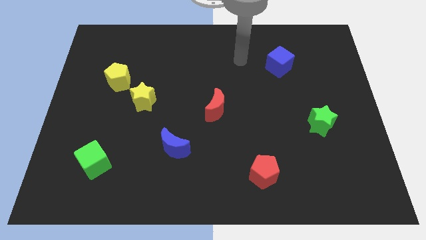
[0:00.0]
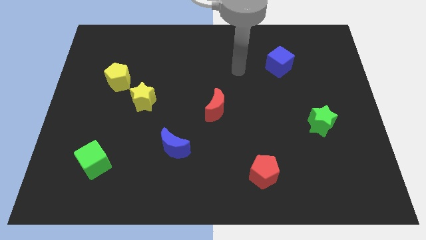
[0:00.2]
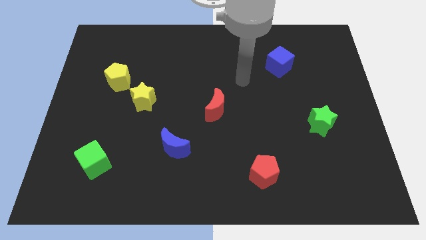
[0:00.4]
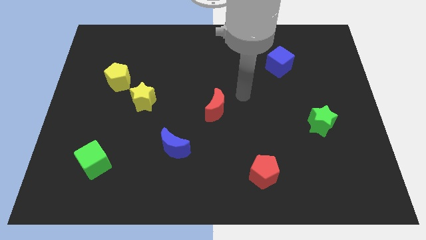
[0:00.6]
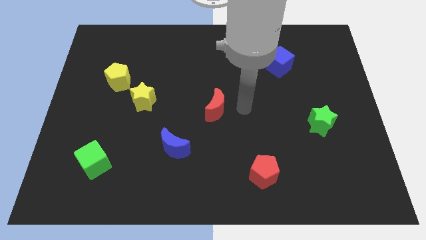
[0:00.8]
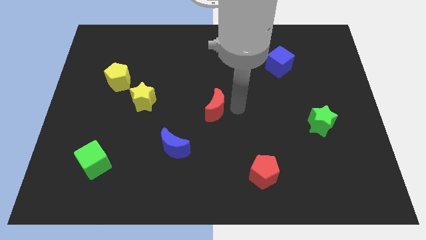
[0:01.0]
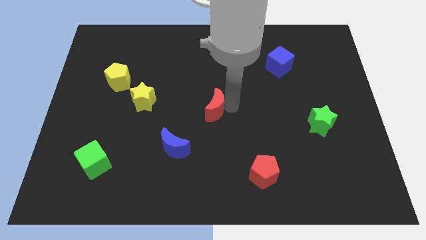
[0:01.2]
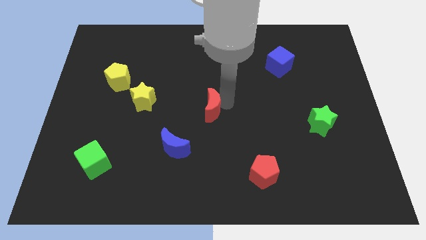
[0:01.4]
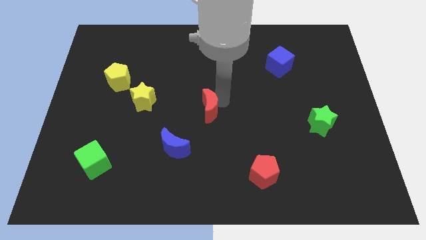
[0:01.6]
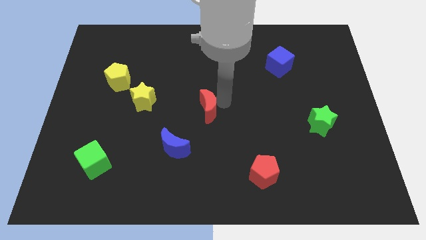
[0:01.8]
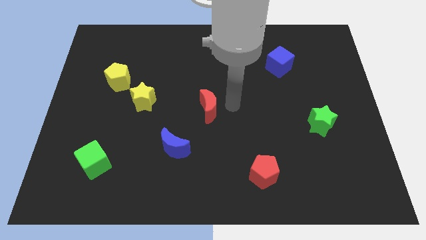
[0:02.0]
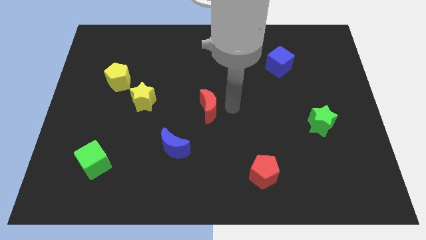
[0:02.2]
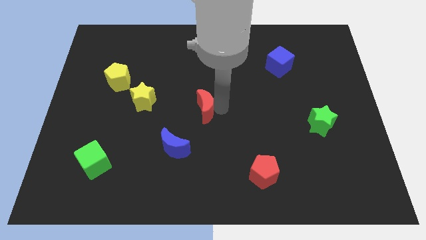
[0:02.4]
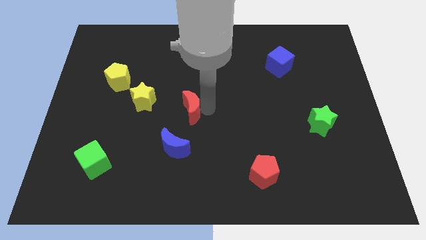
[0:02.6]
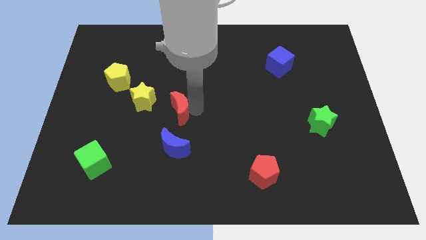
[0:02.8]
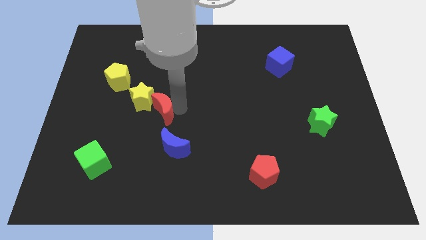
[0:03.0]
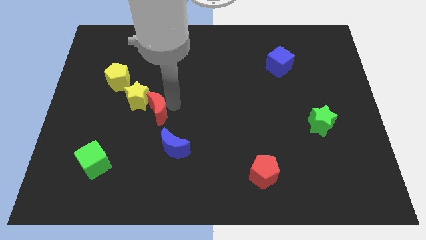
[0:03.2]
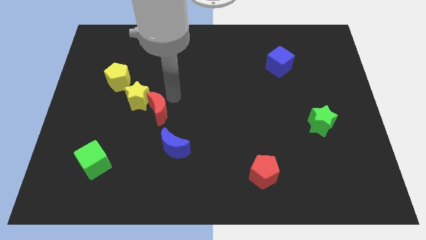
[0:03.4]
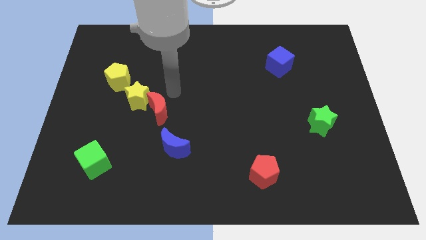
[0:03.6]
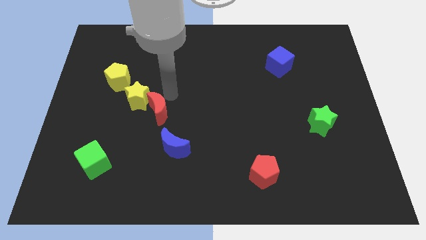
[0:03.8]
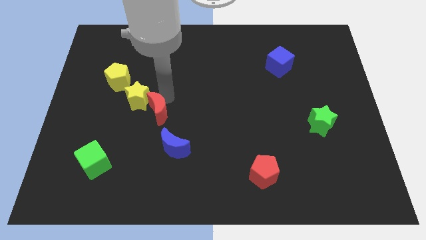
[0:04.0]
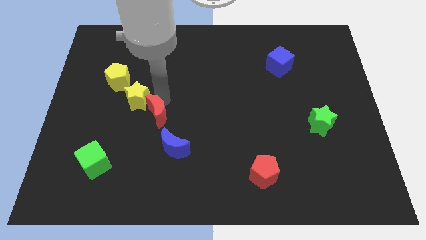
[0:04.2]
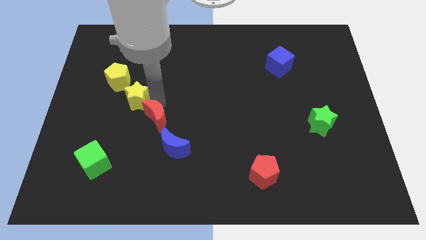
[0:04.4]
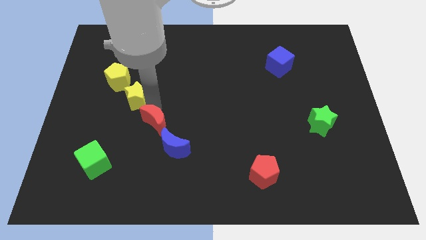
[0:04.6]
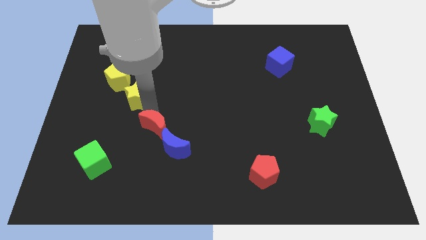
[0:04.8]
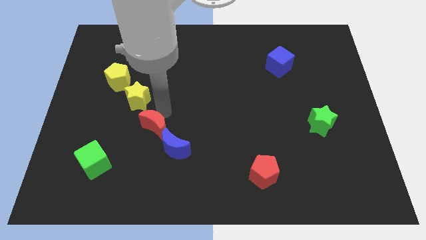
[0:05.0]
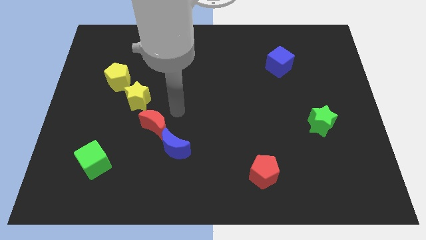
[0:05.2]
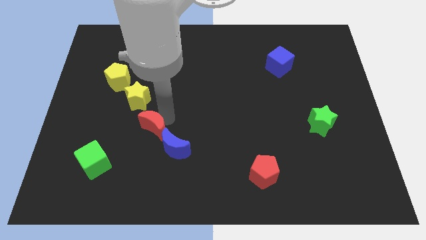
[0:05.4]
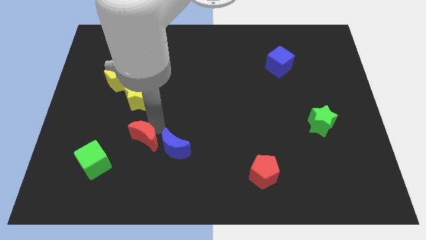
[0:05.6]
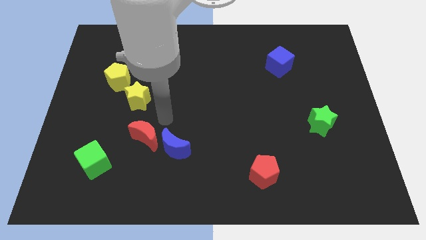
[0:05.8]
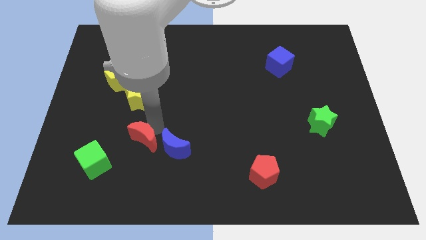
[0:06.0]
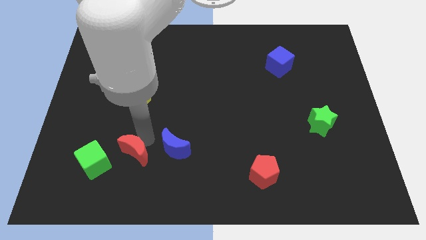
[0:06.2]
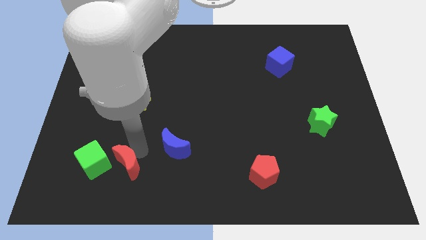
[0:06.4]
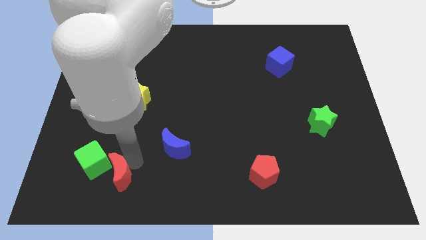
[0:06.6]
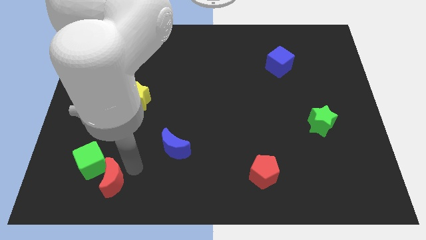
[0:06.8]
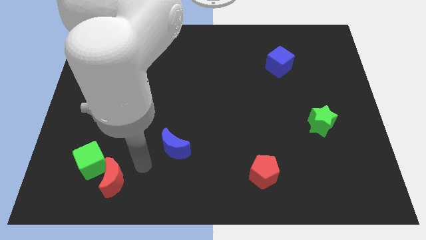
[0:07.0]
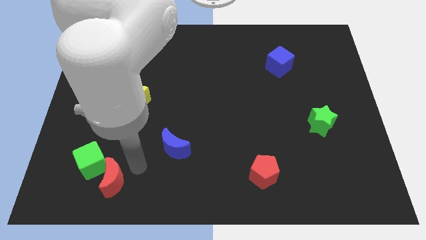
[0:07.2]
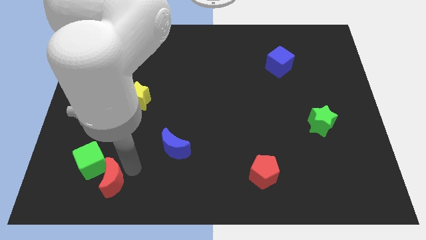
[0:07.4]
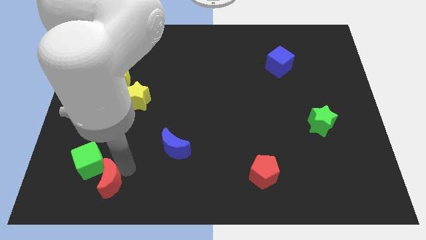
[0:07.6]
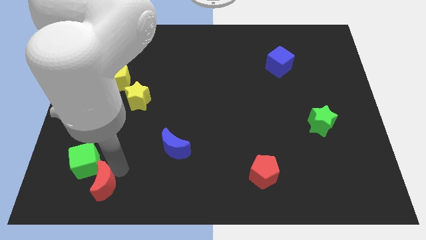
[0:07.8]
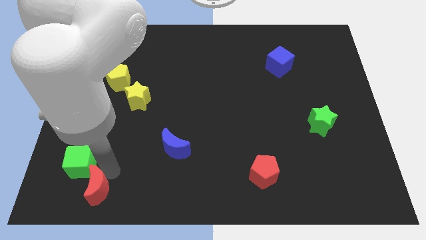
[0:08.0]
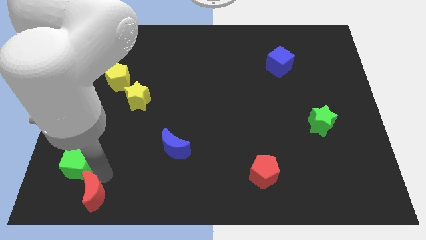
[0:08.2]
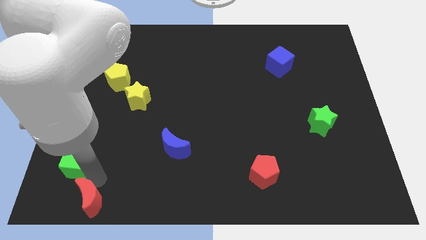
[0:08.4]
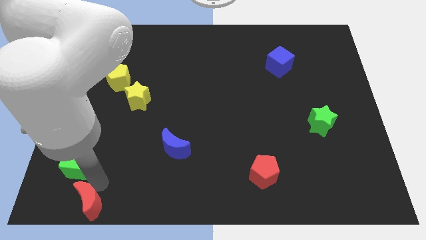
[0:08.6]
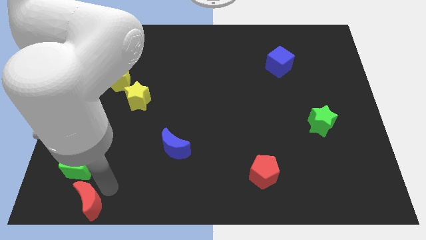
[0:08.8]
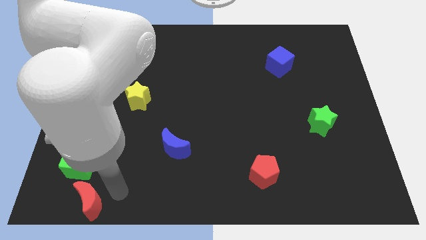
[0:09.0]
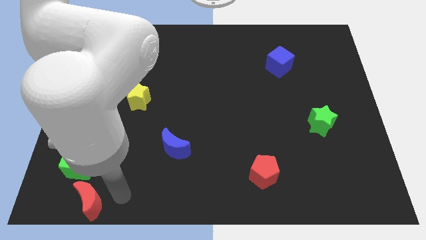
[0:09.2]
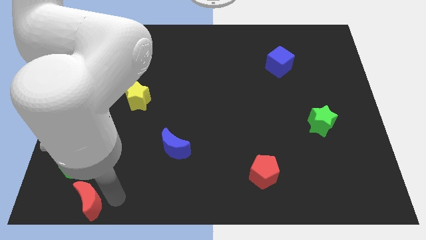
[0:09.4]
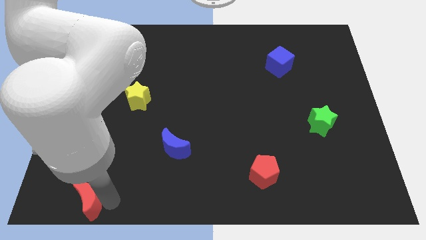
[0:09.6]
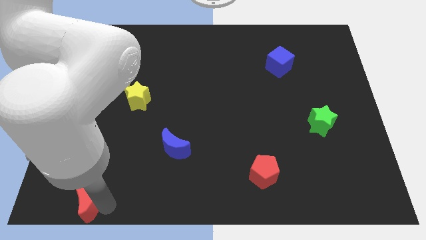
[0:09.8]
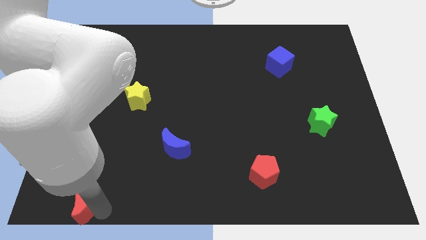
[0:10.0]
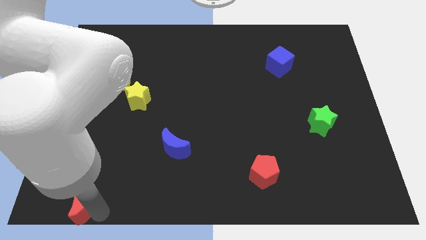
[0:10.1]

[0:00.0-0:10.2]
slide the red moon to the bottom left of the board

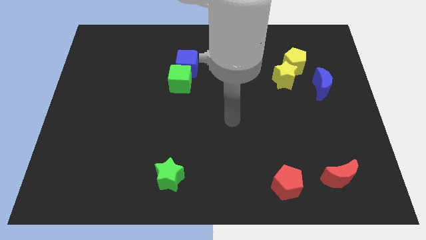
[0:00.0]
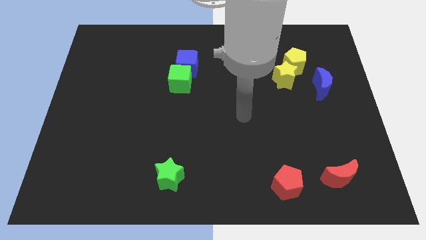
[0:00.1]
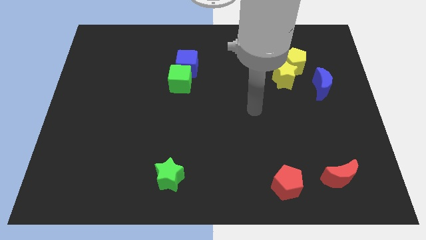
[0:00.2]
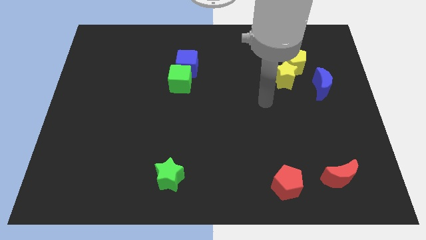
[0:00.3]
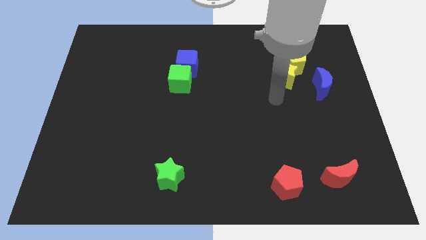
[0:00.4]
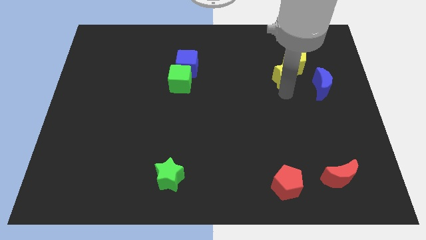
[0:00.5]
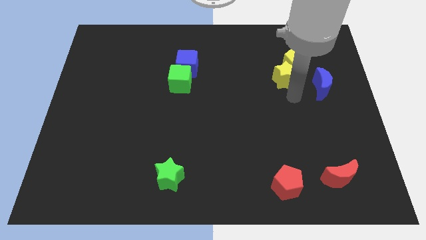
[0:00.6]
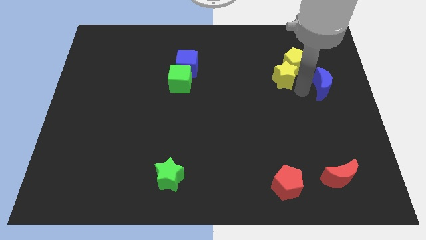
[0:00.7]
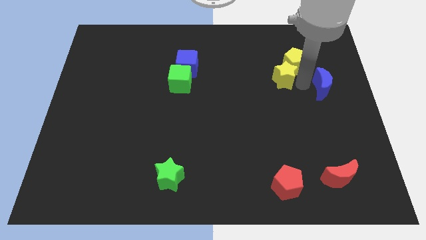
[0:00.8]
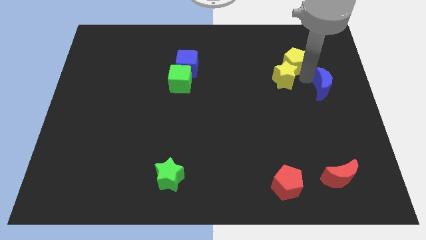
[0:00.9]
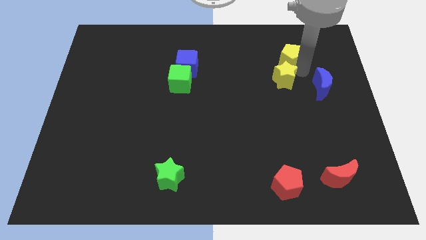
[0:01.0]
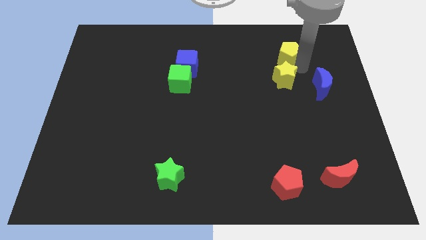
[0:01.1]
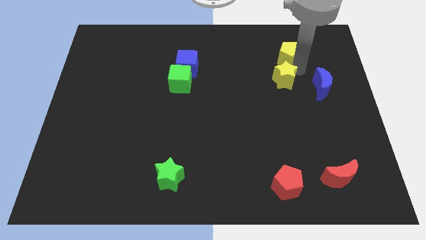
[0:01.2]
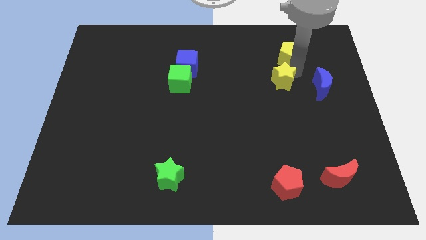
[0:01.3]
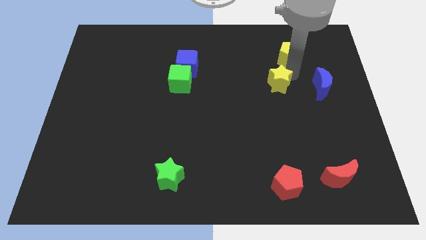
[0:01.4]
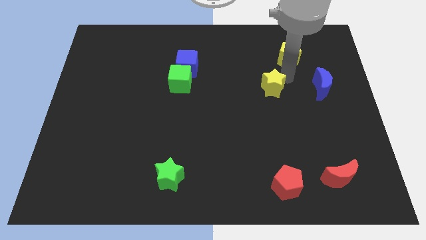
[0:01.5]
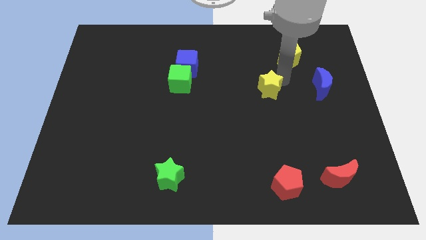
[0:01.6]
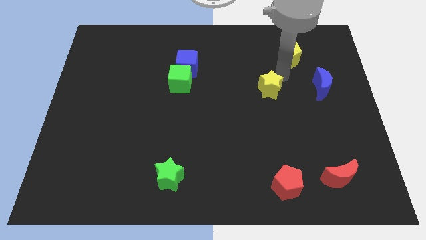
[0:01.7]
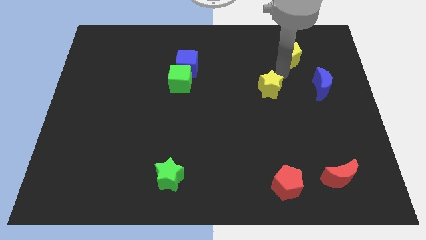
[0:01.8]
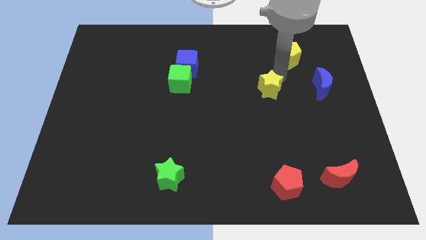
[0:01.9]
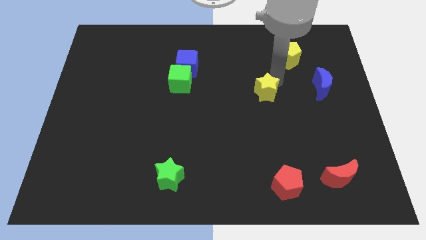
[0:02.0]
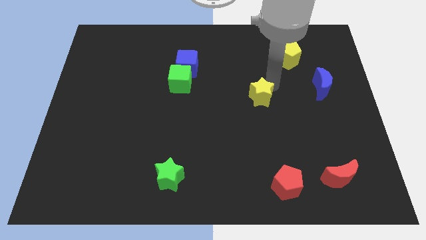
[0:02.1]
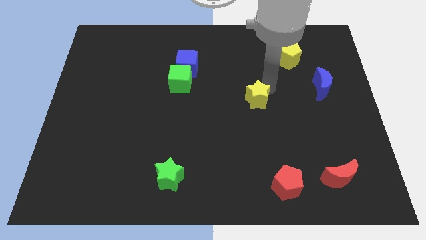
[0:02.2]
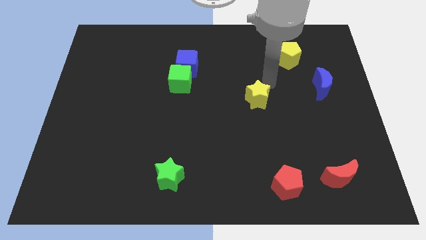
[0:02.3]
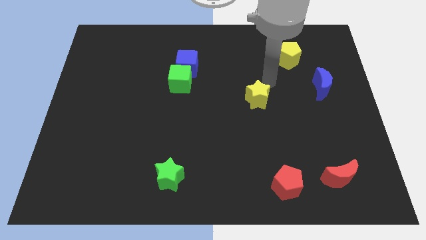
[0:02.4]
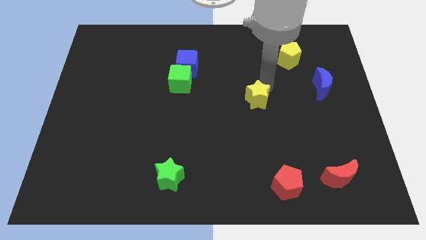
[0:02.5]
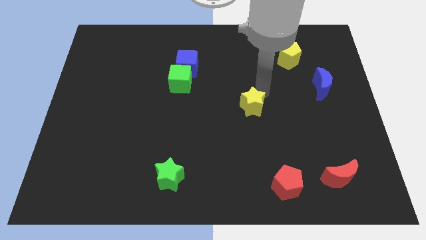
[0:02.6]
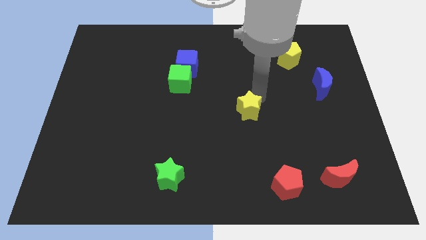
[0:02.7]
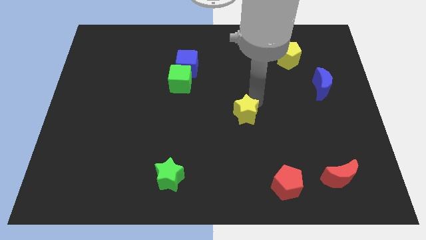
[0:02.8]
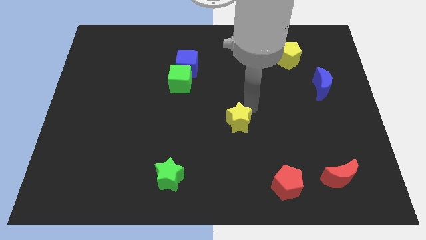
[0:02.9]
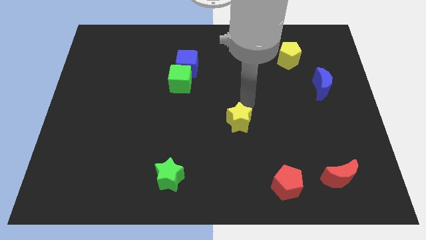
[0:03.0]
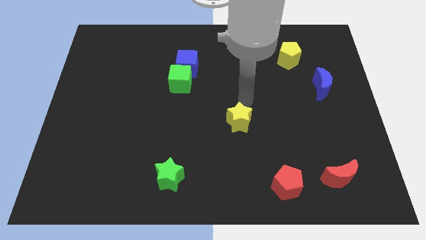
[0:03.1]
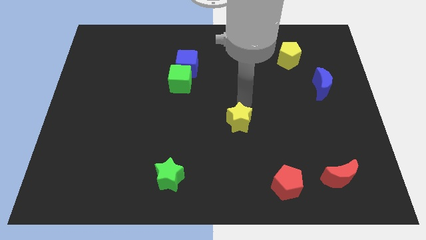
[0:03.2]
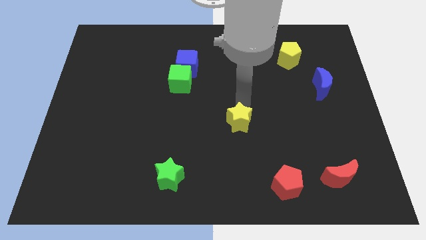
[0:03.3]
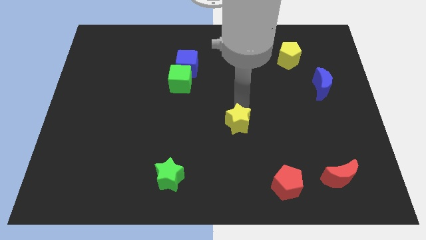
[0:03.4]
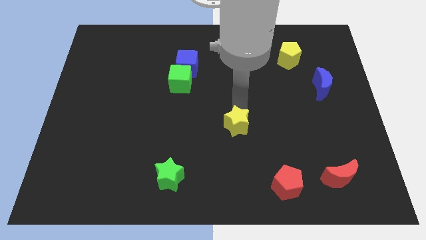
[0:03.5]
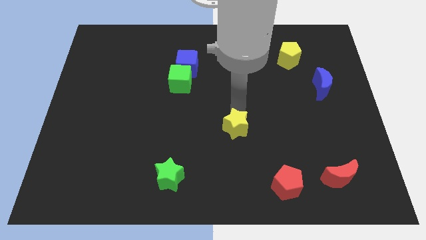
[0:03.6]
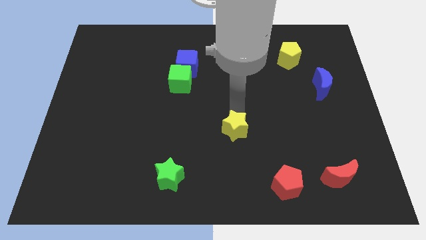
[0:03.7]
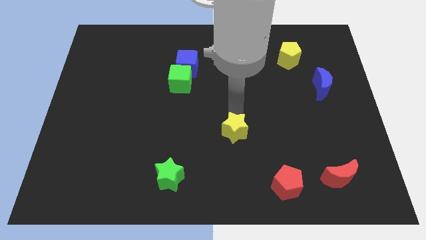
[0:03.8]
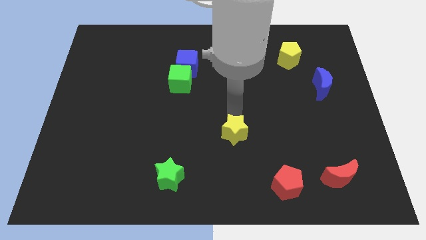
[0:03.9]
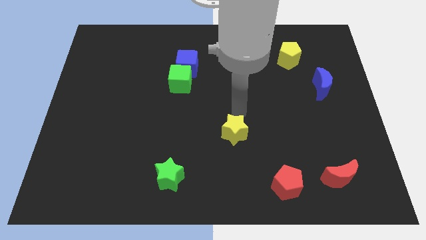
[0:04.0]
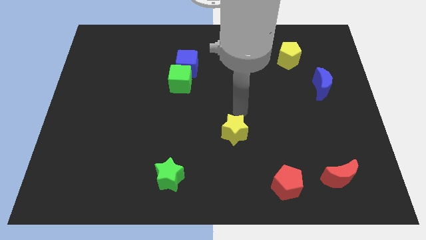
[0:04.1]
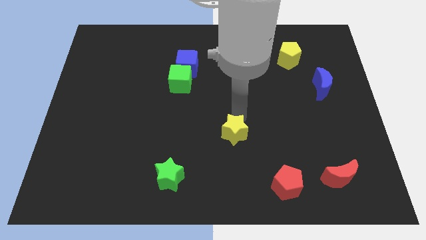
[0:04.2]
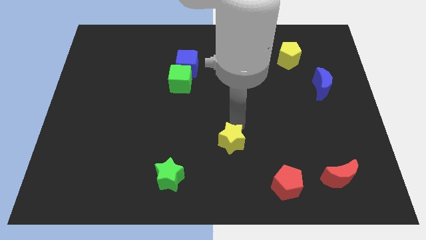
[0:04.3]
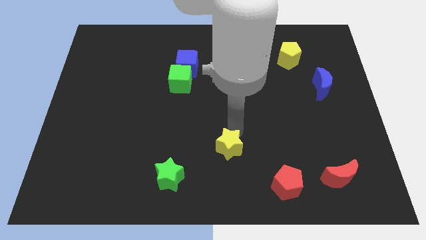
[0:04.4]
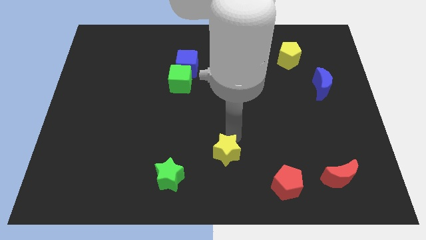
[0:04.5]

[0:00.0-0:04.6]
push the yellow star to the bottom
